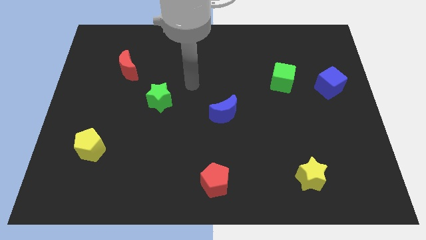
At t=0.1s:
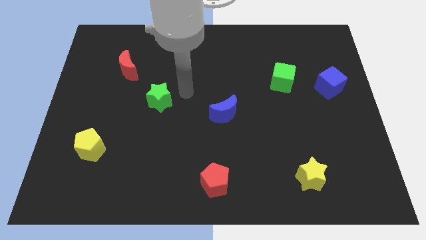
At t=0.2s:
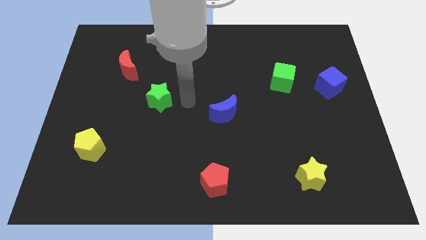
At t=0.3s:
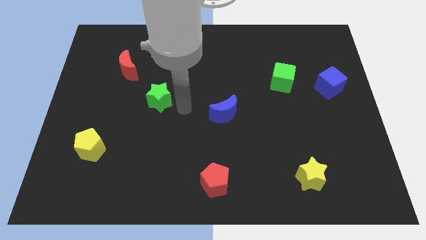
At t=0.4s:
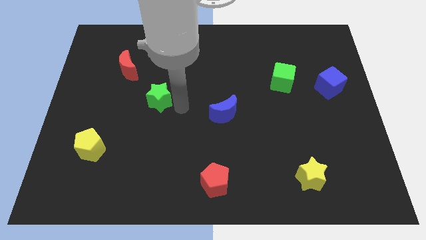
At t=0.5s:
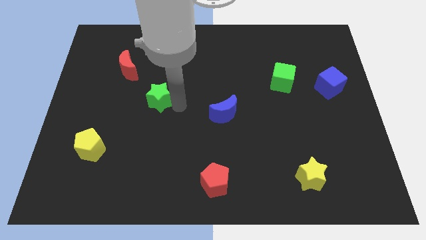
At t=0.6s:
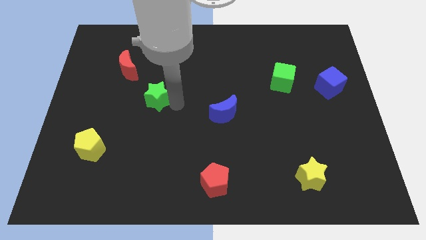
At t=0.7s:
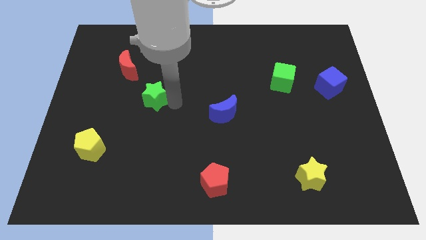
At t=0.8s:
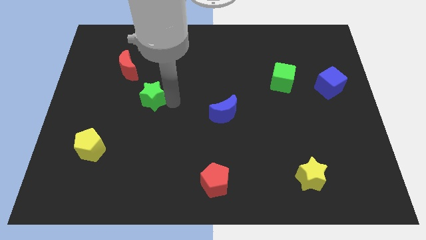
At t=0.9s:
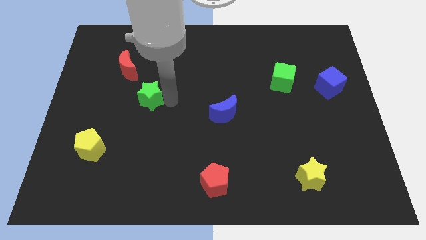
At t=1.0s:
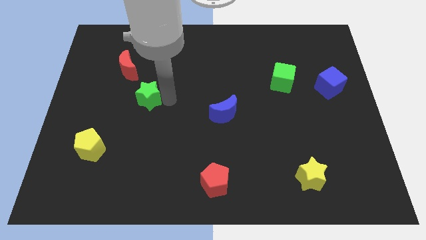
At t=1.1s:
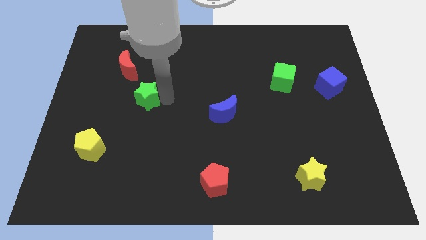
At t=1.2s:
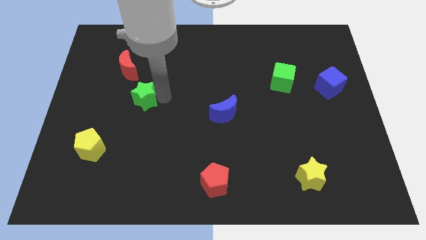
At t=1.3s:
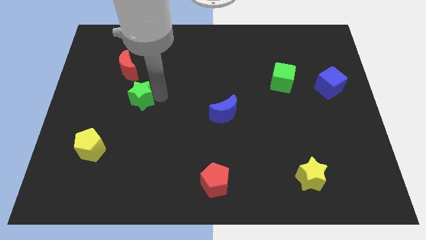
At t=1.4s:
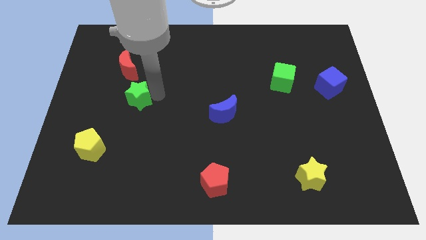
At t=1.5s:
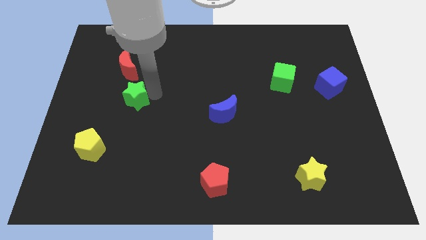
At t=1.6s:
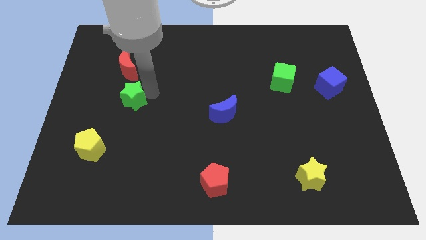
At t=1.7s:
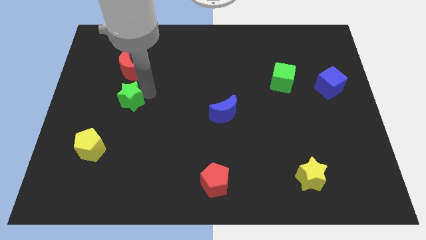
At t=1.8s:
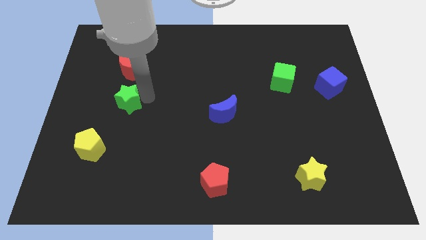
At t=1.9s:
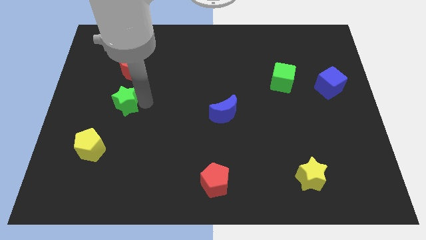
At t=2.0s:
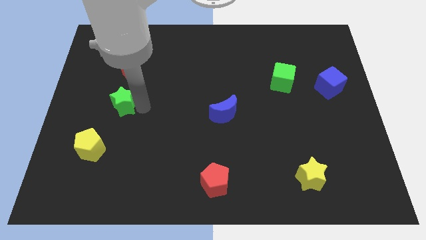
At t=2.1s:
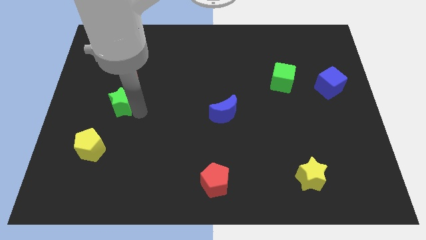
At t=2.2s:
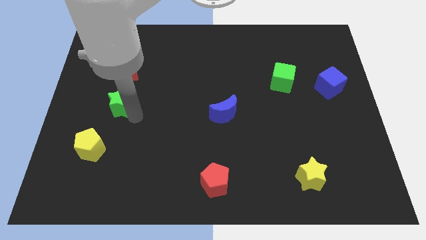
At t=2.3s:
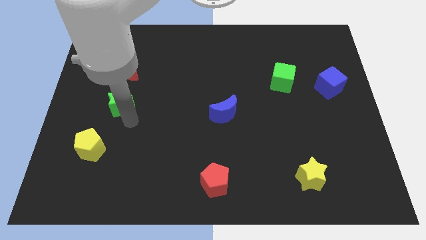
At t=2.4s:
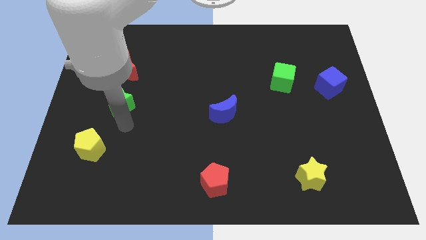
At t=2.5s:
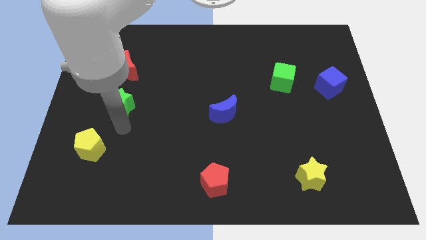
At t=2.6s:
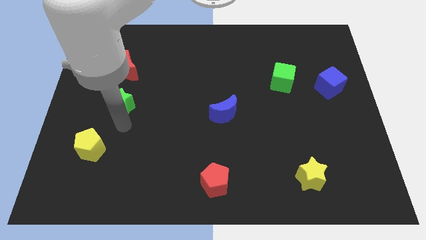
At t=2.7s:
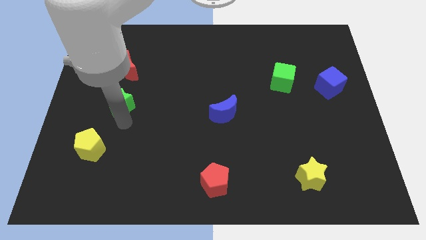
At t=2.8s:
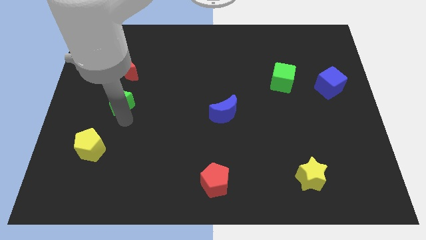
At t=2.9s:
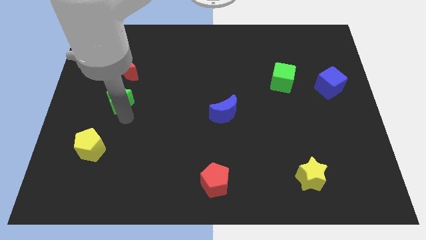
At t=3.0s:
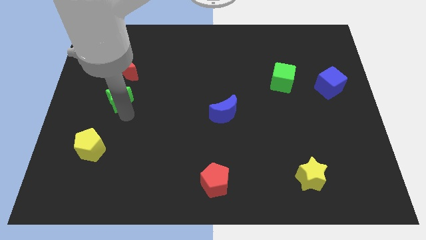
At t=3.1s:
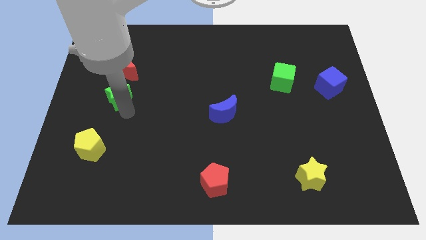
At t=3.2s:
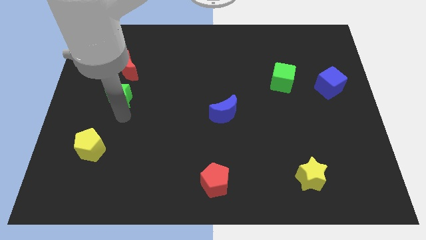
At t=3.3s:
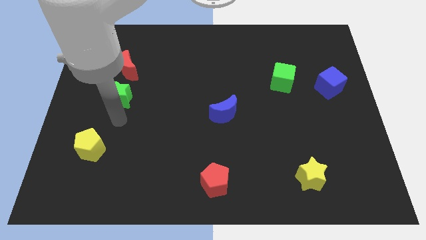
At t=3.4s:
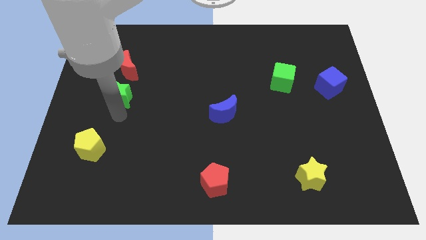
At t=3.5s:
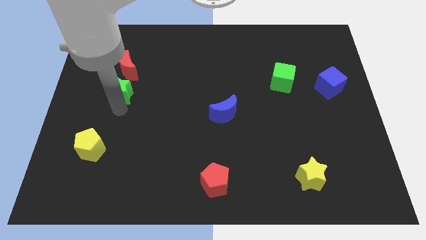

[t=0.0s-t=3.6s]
slightly slide the green star diagonally upwards and left

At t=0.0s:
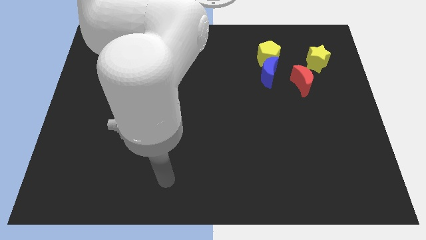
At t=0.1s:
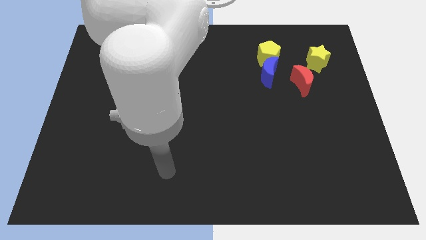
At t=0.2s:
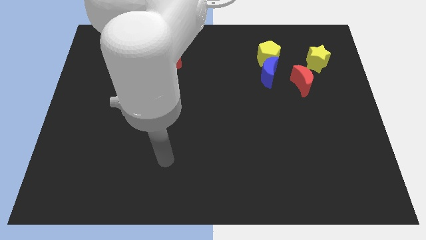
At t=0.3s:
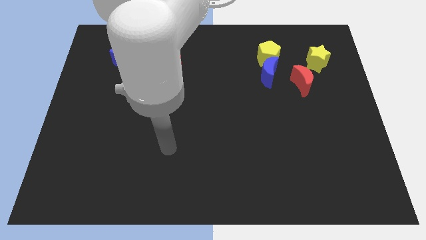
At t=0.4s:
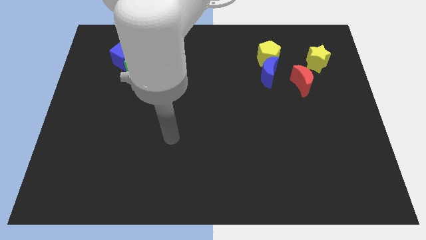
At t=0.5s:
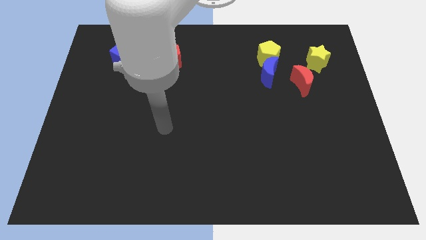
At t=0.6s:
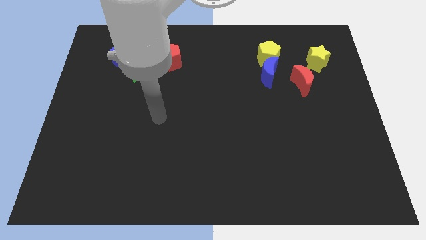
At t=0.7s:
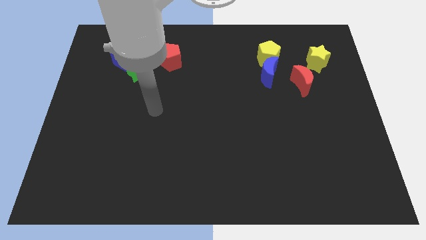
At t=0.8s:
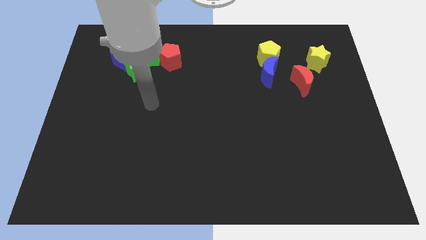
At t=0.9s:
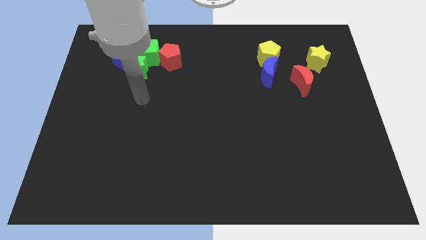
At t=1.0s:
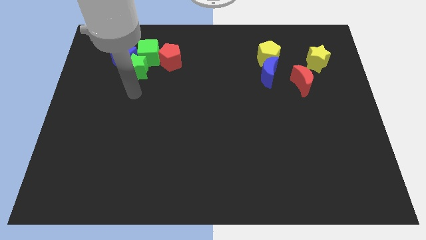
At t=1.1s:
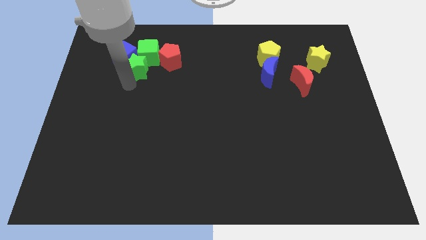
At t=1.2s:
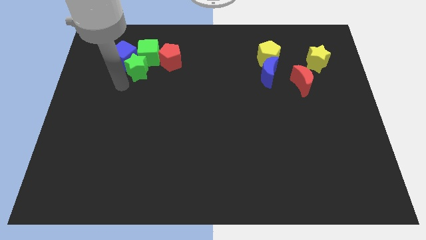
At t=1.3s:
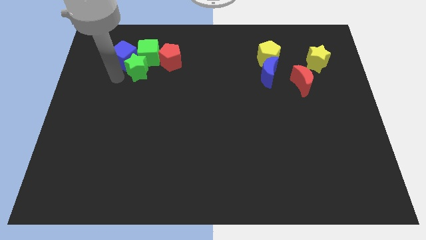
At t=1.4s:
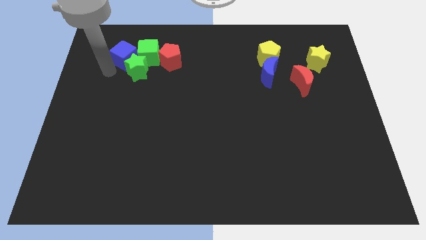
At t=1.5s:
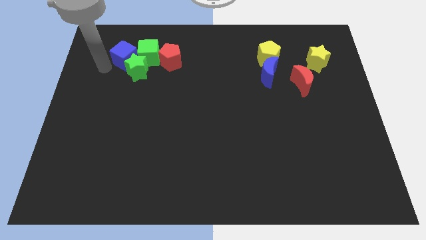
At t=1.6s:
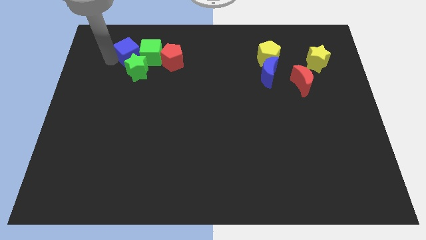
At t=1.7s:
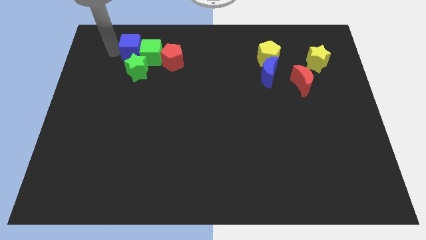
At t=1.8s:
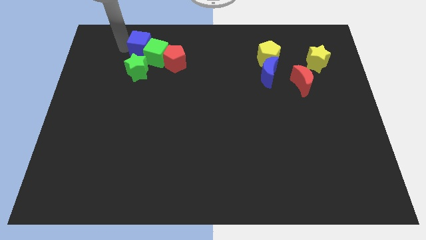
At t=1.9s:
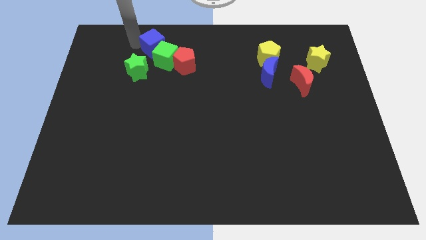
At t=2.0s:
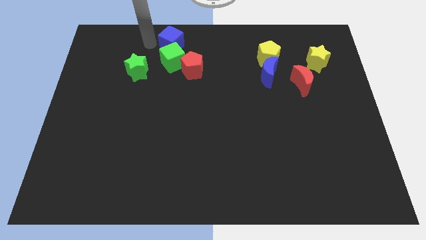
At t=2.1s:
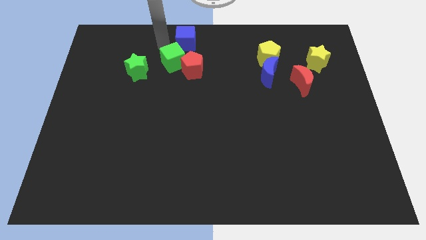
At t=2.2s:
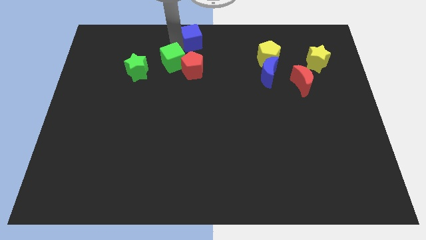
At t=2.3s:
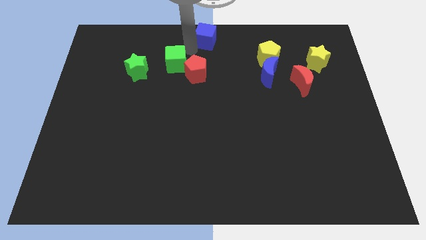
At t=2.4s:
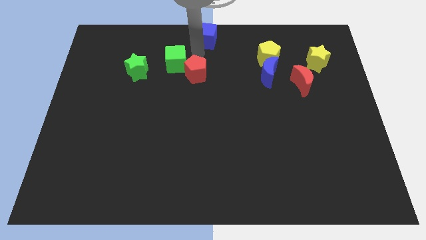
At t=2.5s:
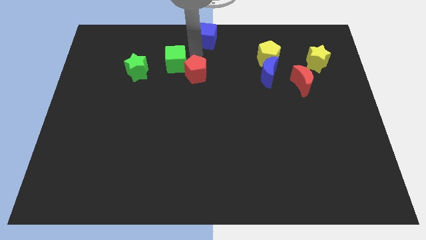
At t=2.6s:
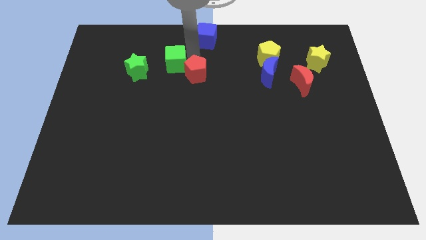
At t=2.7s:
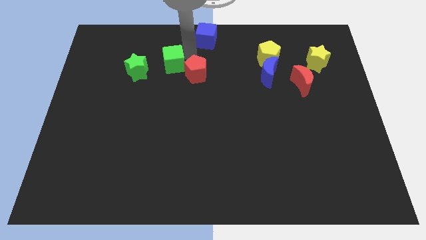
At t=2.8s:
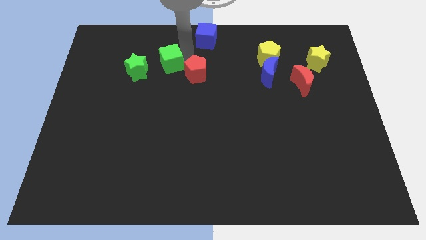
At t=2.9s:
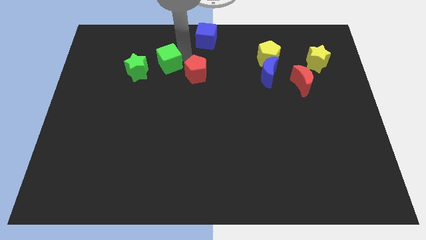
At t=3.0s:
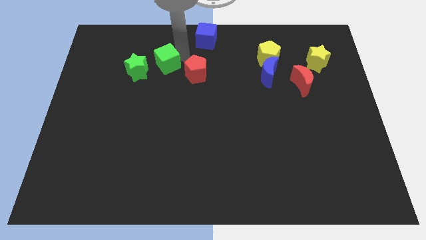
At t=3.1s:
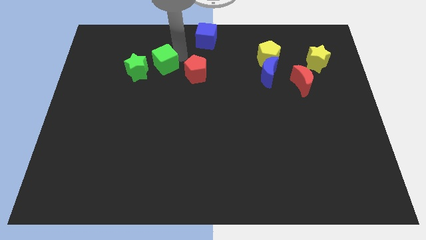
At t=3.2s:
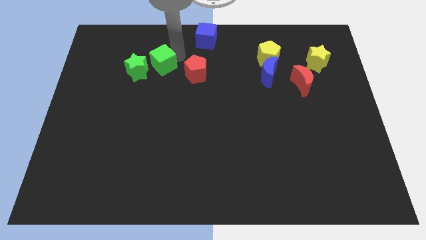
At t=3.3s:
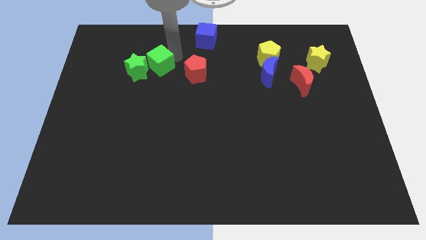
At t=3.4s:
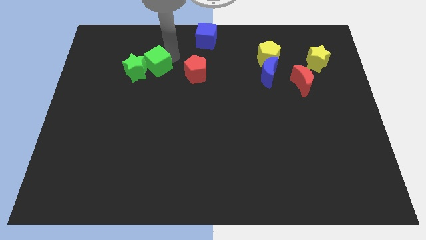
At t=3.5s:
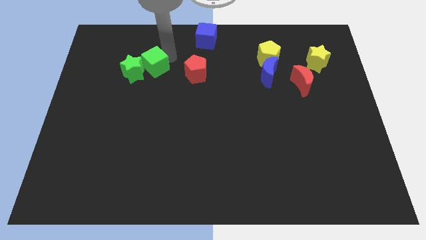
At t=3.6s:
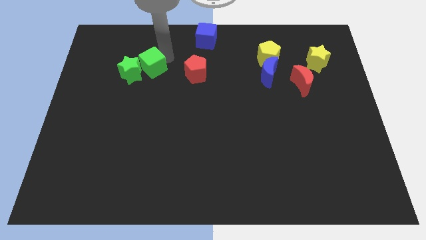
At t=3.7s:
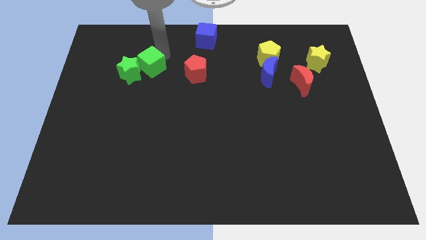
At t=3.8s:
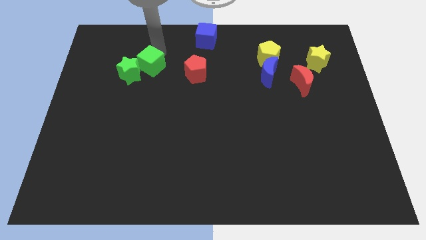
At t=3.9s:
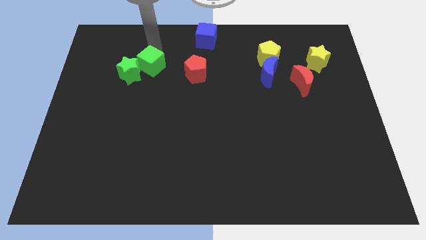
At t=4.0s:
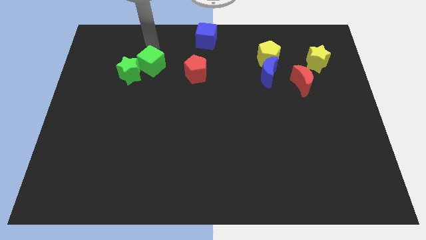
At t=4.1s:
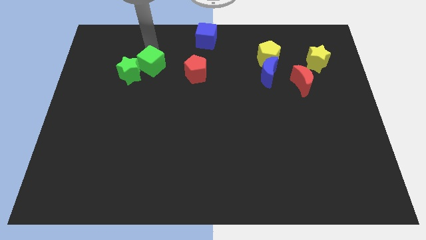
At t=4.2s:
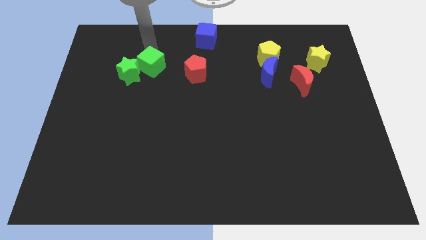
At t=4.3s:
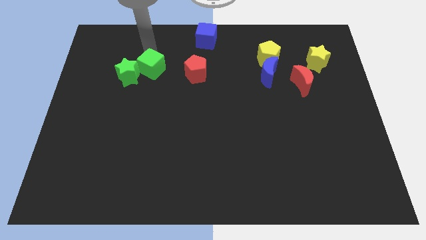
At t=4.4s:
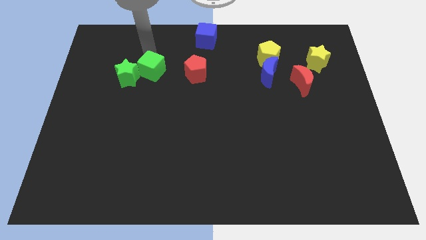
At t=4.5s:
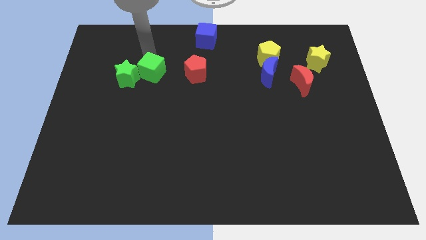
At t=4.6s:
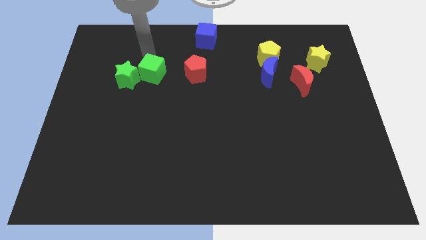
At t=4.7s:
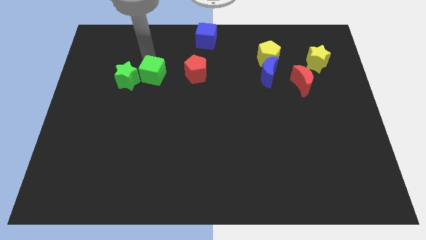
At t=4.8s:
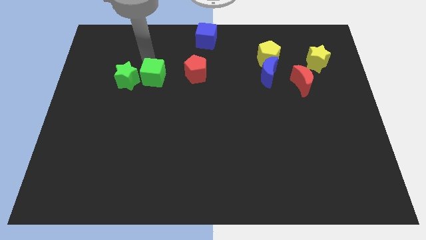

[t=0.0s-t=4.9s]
slide the green cube down somewhat
